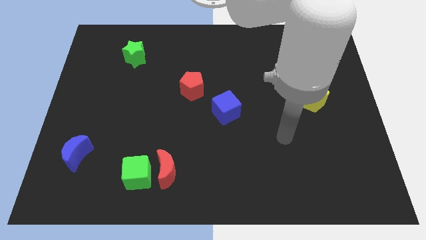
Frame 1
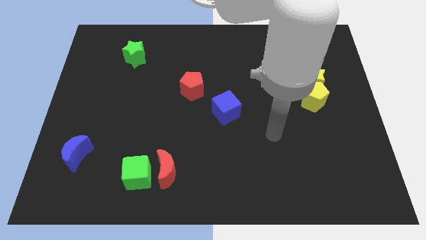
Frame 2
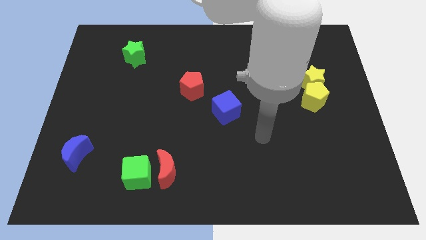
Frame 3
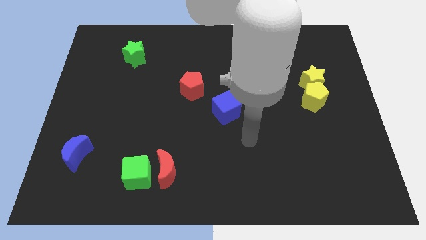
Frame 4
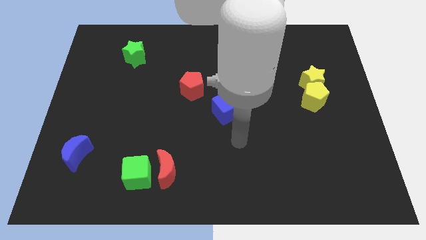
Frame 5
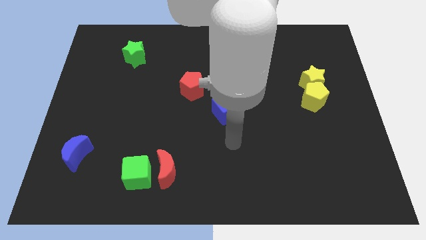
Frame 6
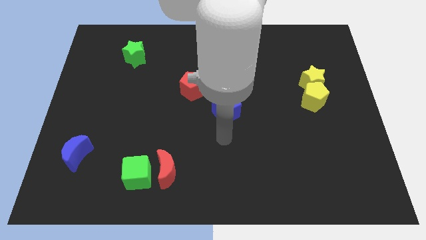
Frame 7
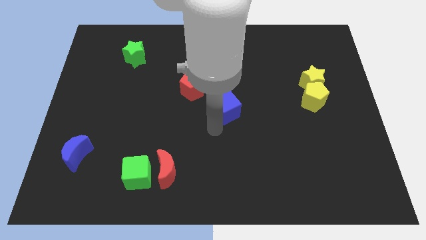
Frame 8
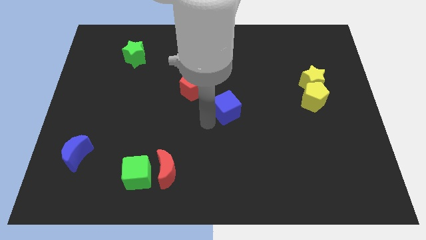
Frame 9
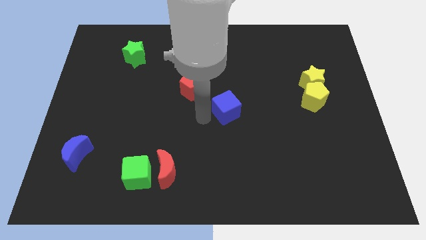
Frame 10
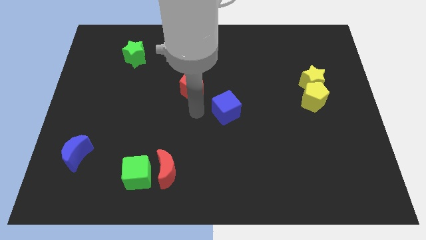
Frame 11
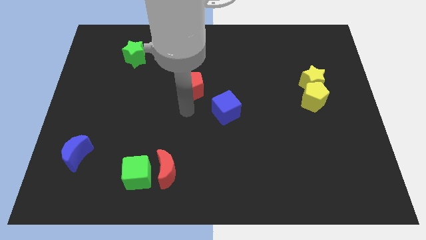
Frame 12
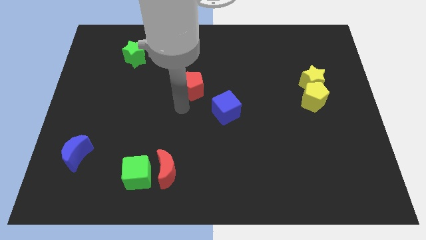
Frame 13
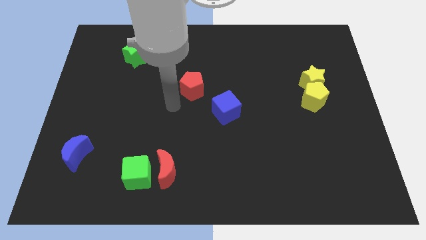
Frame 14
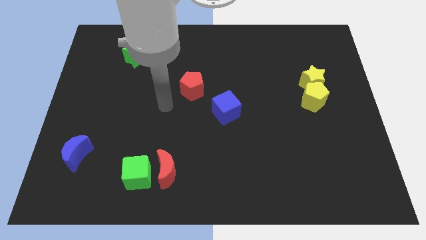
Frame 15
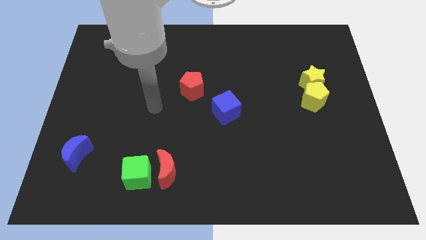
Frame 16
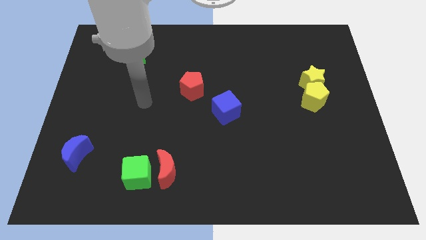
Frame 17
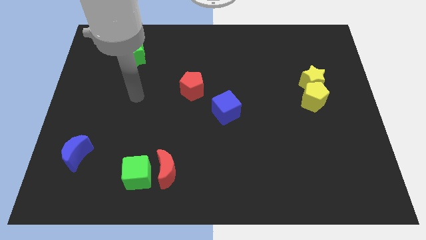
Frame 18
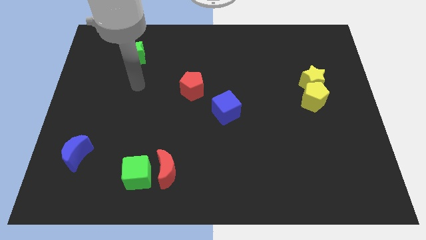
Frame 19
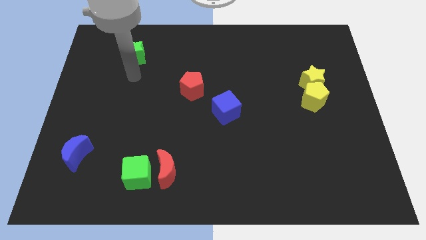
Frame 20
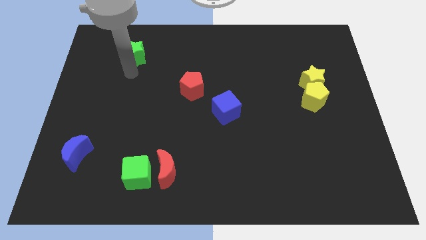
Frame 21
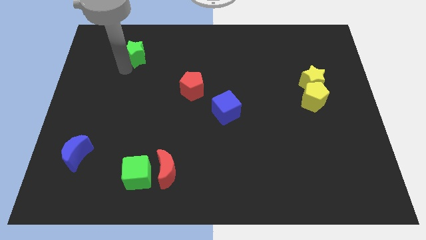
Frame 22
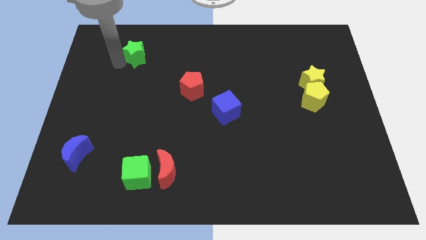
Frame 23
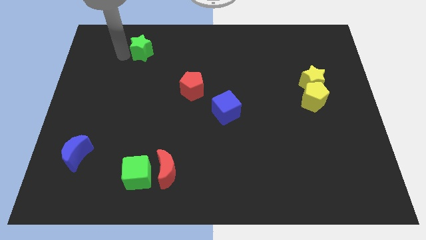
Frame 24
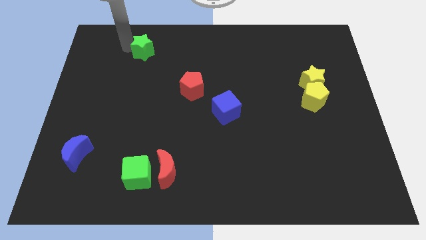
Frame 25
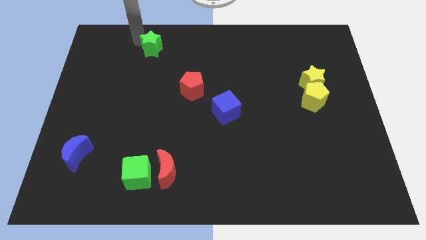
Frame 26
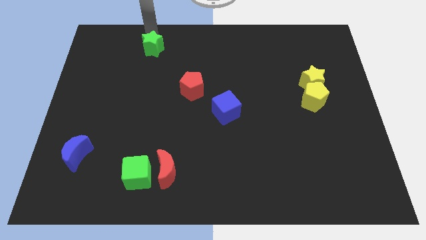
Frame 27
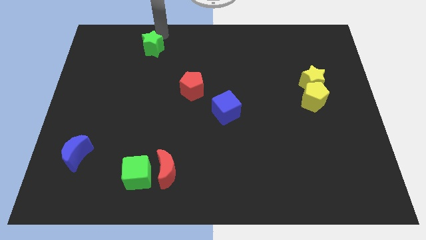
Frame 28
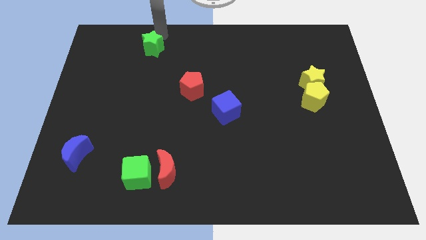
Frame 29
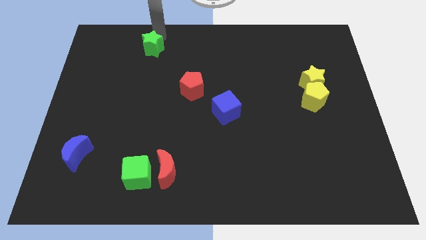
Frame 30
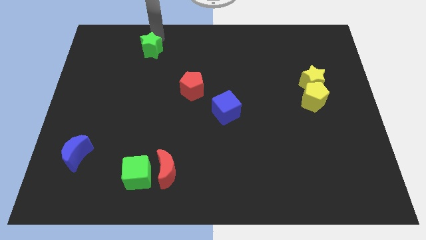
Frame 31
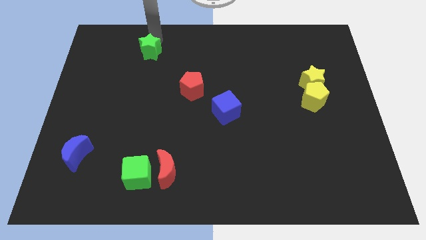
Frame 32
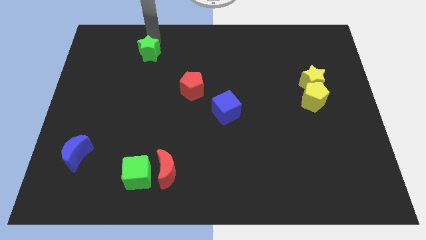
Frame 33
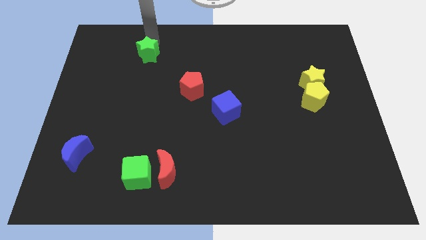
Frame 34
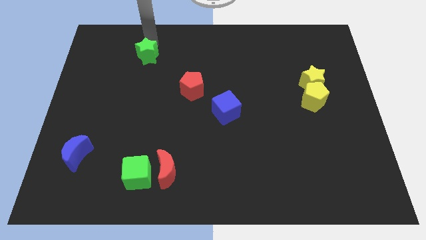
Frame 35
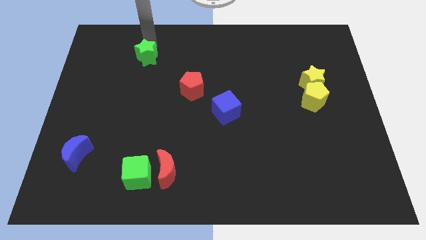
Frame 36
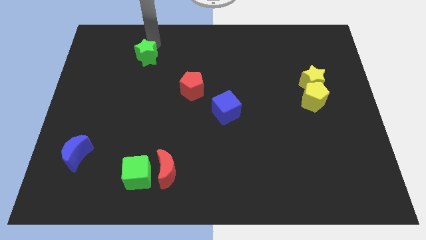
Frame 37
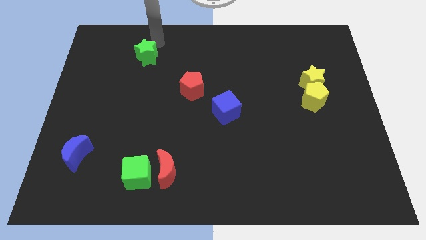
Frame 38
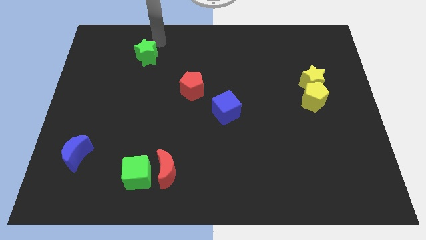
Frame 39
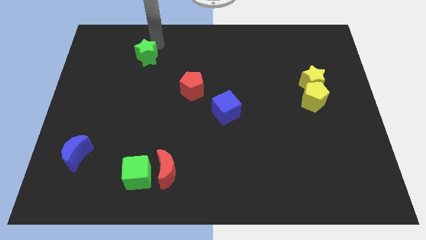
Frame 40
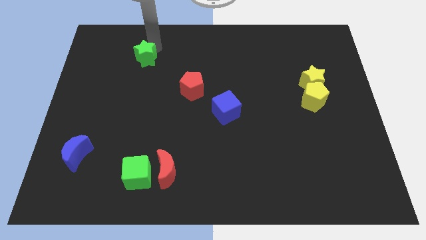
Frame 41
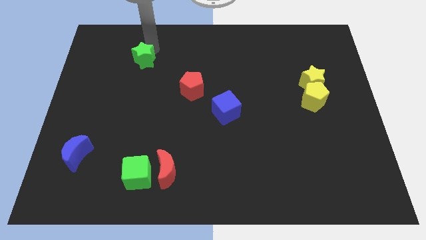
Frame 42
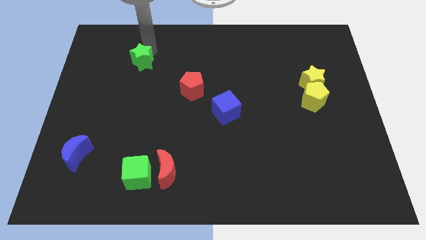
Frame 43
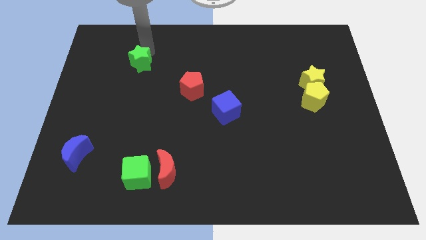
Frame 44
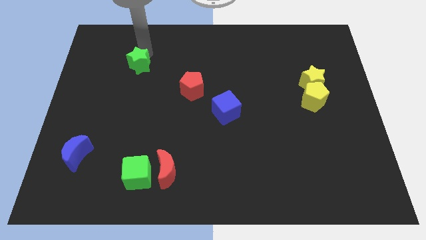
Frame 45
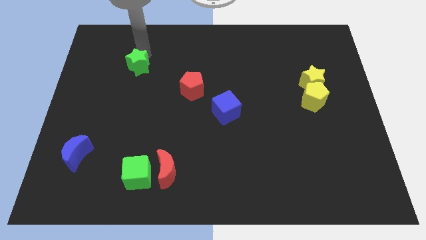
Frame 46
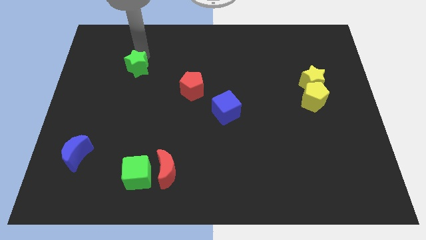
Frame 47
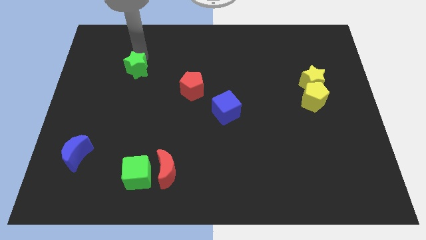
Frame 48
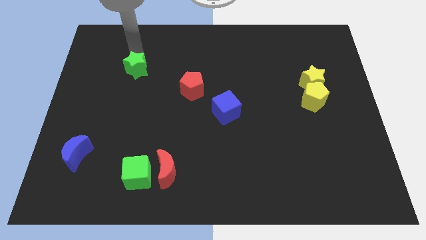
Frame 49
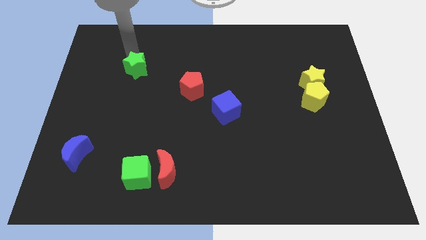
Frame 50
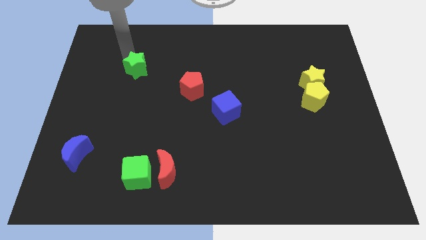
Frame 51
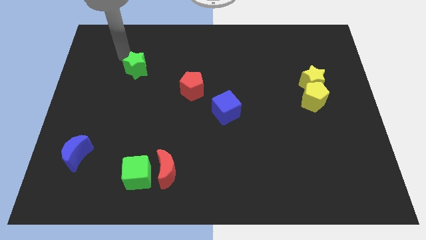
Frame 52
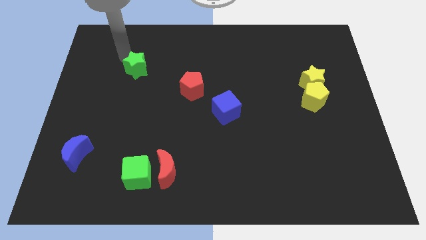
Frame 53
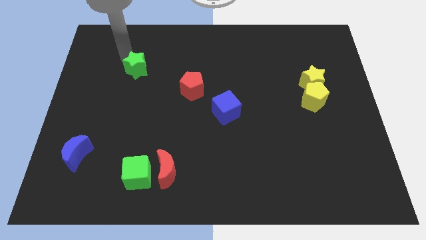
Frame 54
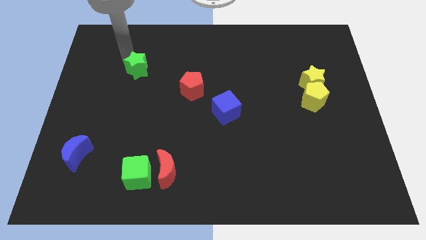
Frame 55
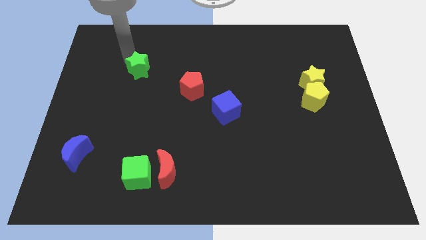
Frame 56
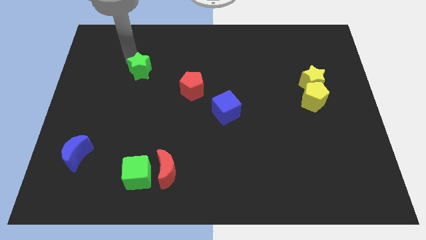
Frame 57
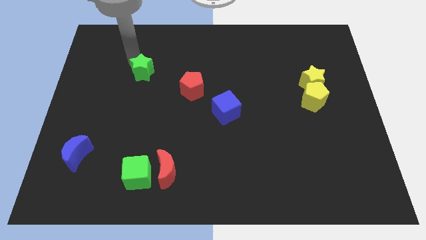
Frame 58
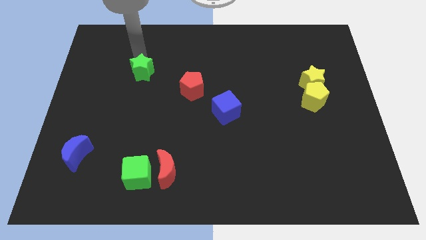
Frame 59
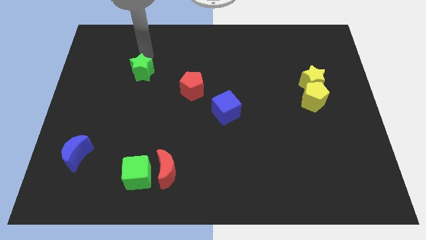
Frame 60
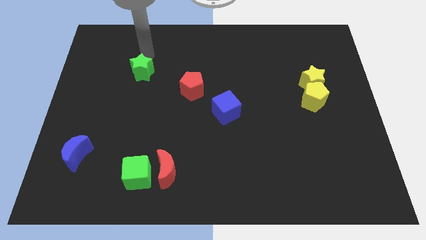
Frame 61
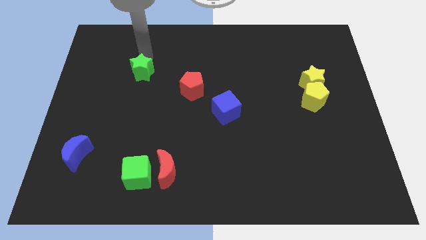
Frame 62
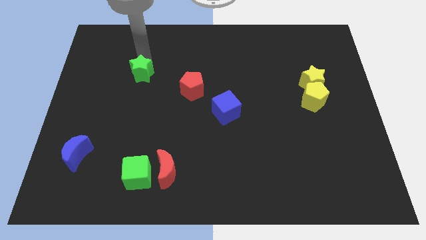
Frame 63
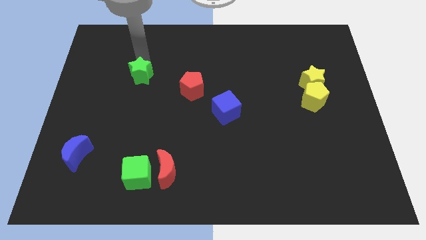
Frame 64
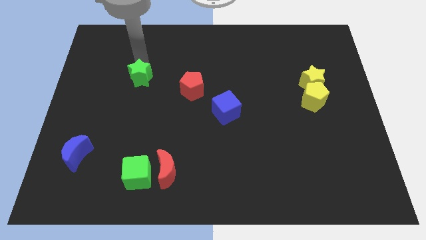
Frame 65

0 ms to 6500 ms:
slightly move the green star down

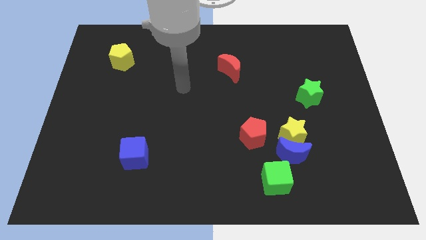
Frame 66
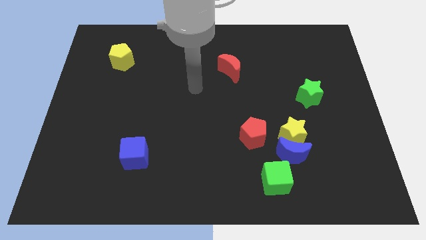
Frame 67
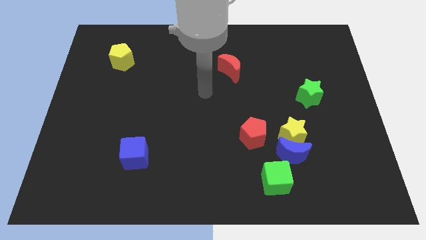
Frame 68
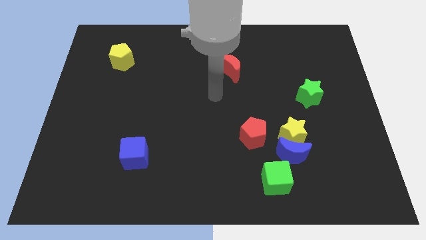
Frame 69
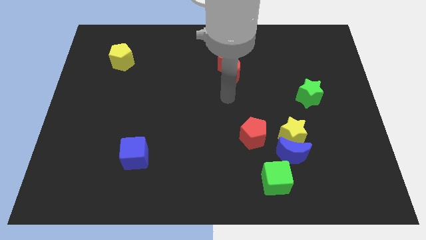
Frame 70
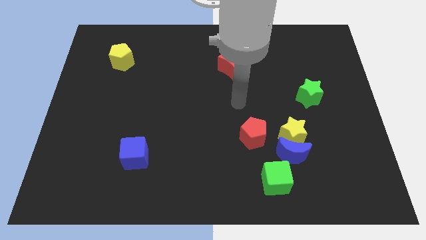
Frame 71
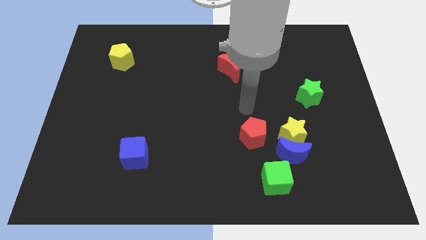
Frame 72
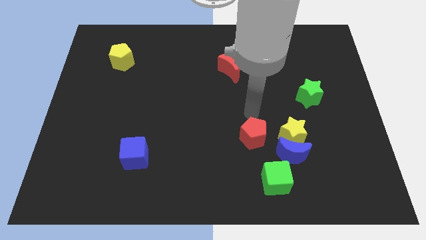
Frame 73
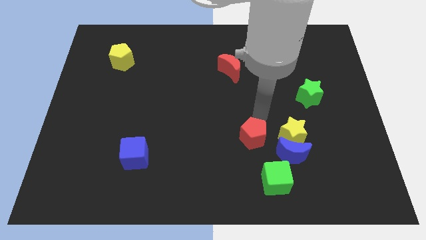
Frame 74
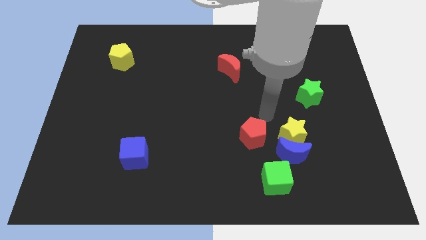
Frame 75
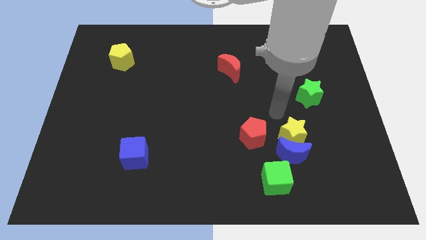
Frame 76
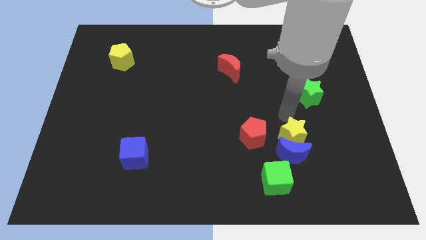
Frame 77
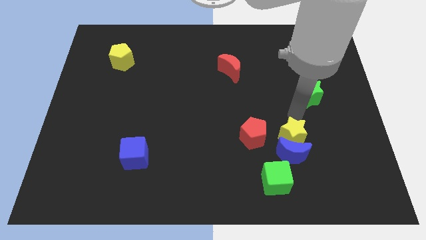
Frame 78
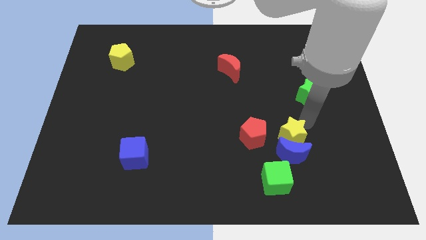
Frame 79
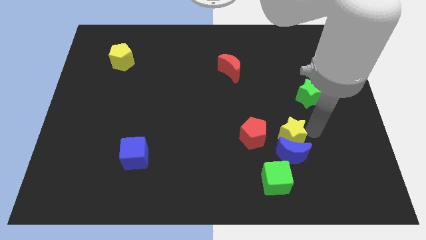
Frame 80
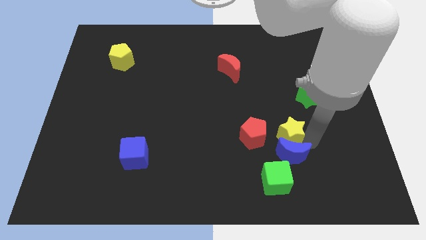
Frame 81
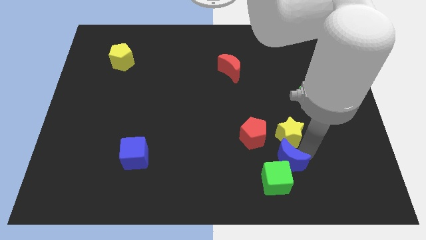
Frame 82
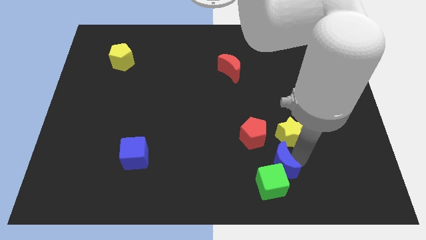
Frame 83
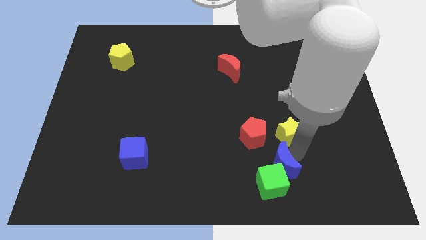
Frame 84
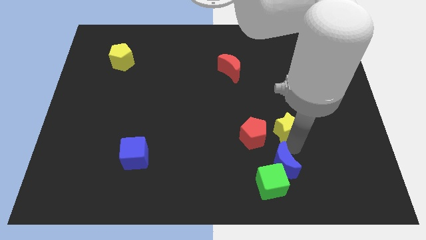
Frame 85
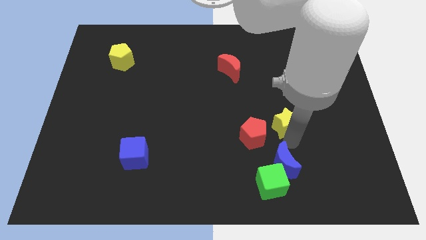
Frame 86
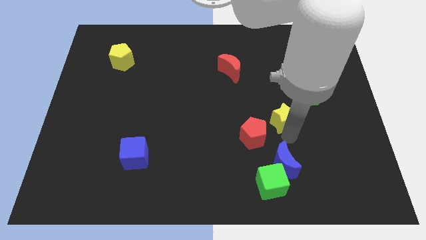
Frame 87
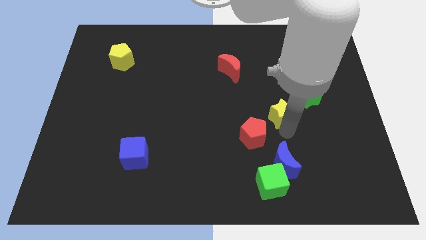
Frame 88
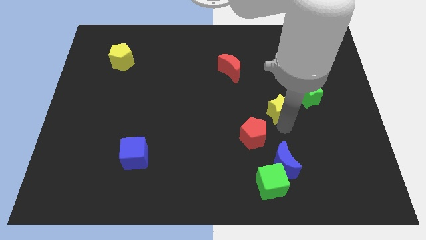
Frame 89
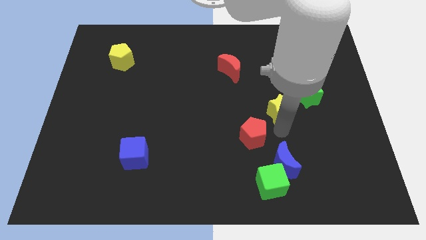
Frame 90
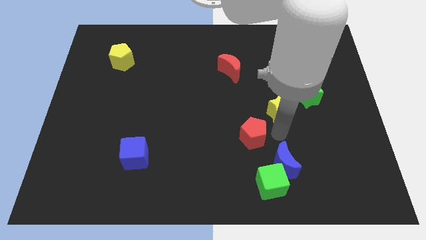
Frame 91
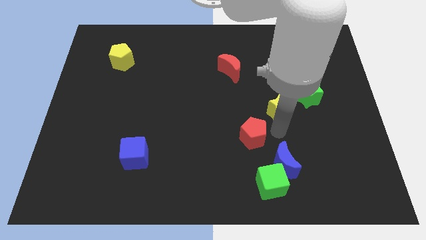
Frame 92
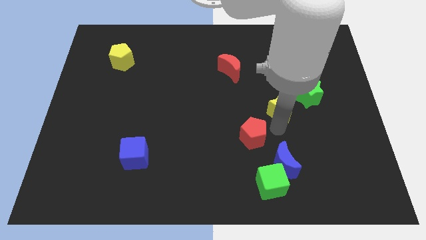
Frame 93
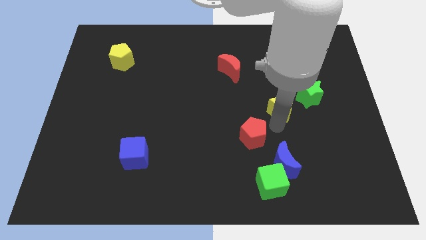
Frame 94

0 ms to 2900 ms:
move the yellow star up somewhat
